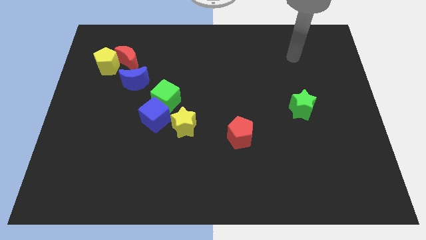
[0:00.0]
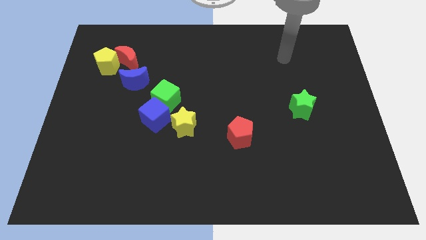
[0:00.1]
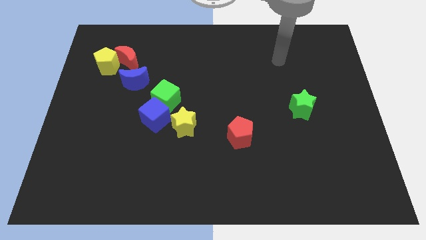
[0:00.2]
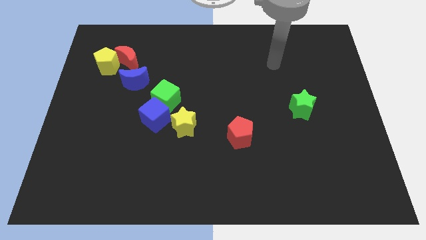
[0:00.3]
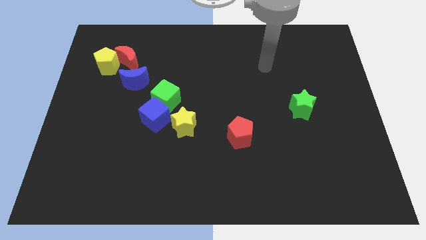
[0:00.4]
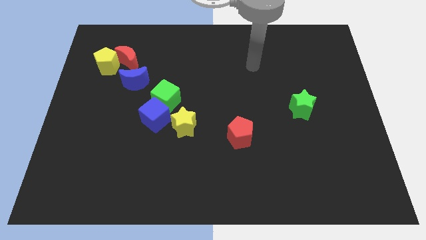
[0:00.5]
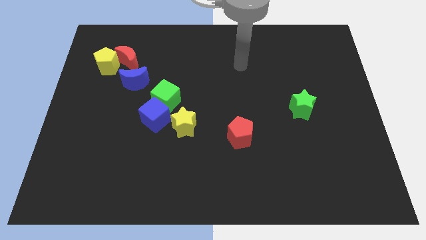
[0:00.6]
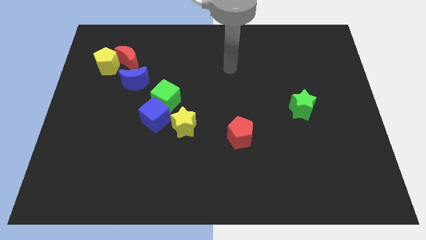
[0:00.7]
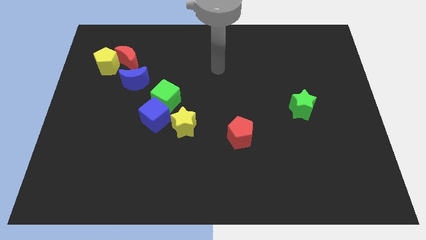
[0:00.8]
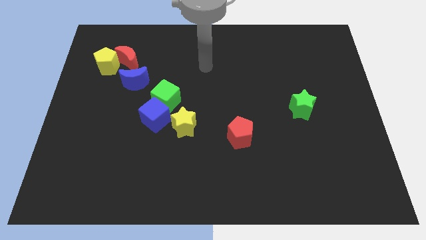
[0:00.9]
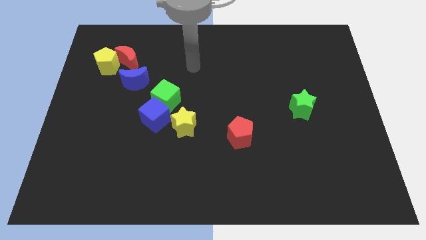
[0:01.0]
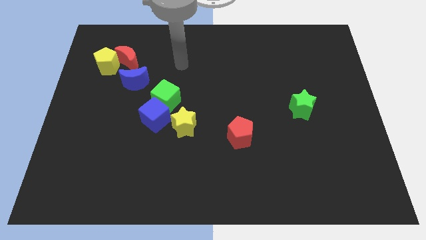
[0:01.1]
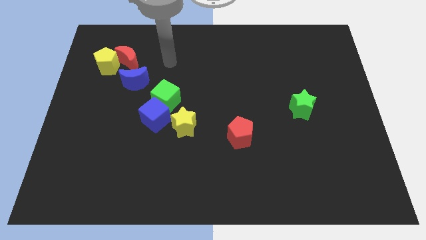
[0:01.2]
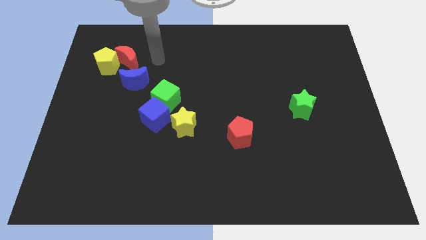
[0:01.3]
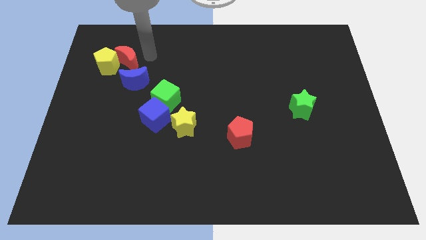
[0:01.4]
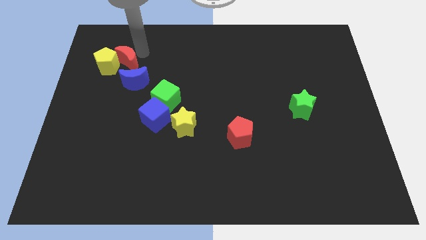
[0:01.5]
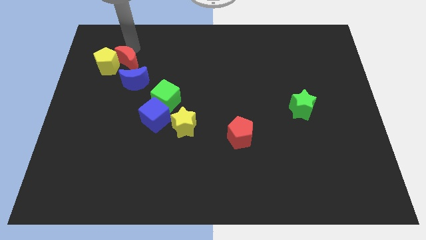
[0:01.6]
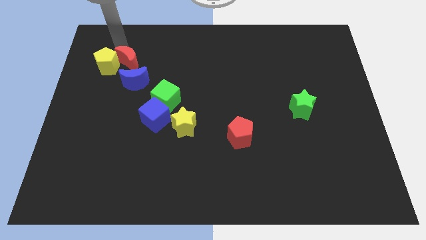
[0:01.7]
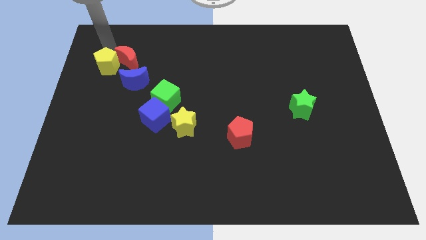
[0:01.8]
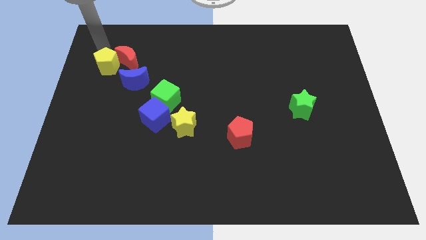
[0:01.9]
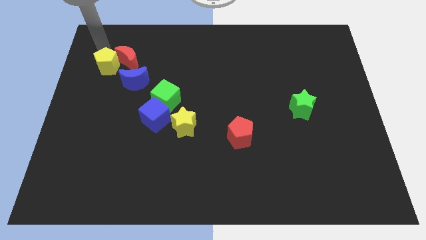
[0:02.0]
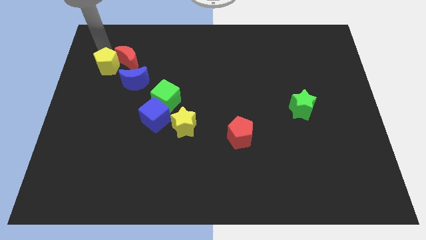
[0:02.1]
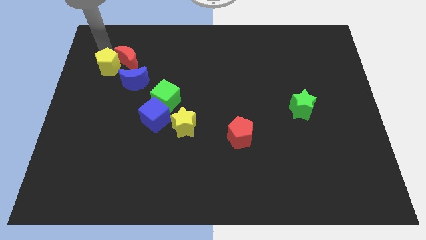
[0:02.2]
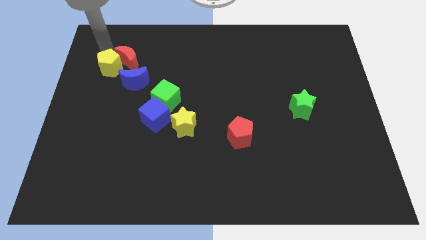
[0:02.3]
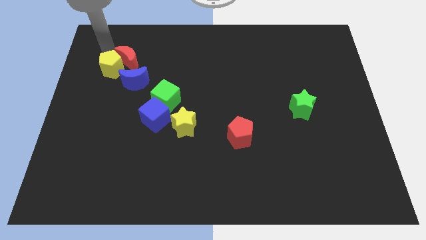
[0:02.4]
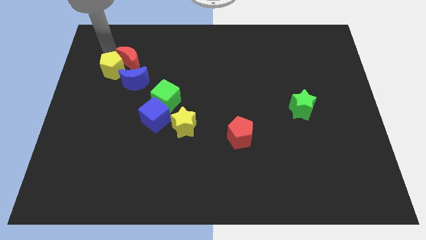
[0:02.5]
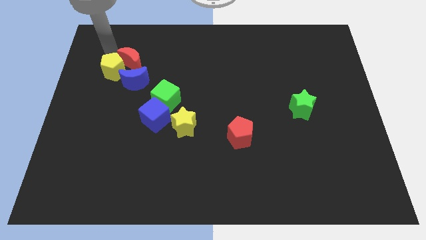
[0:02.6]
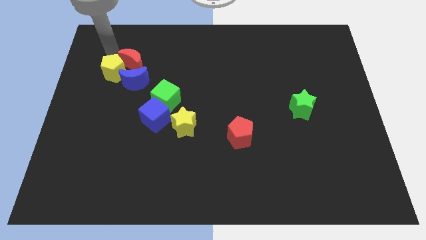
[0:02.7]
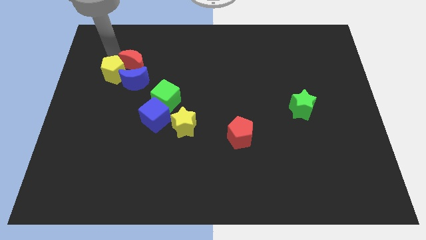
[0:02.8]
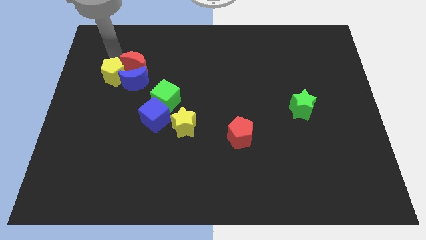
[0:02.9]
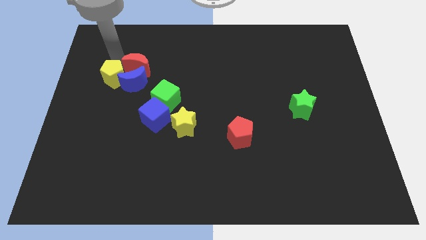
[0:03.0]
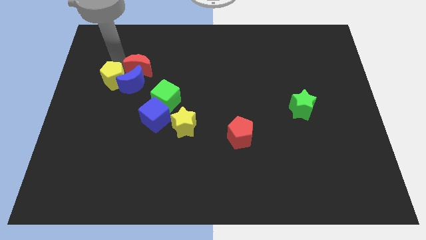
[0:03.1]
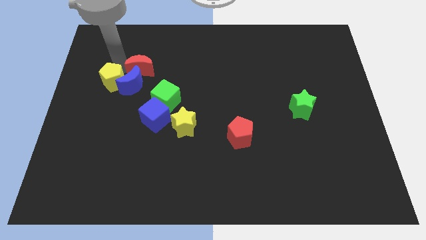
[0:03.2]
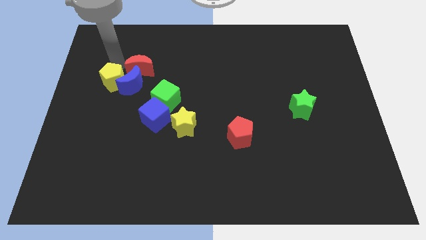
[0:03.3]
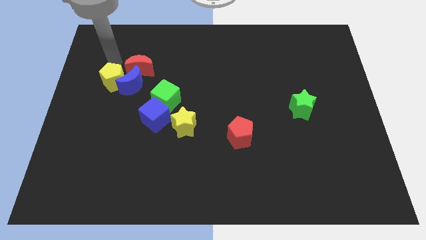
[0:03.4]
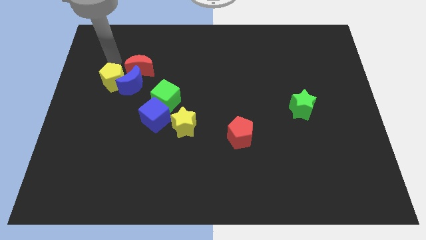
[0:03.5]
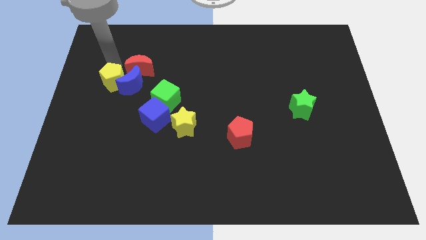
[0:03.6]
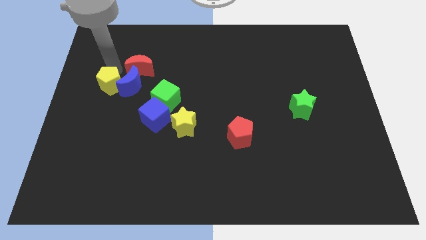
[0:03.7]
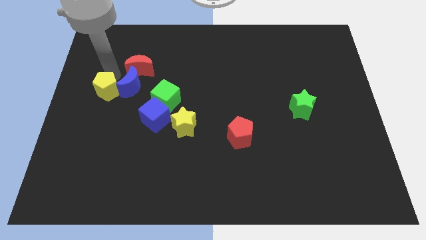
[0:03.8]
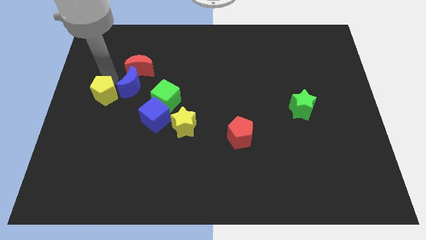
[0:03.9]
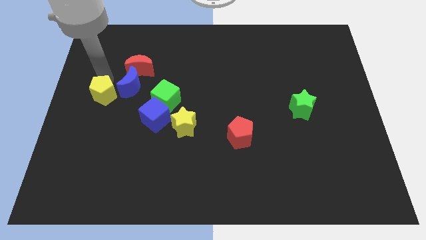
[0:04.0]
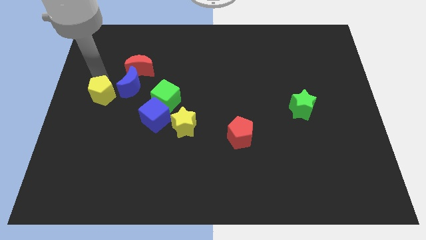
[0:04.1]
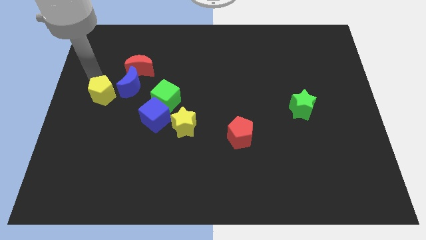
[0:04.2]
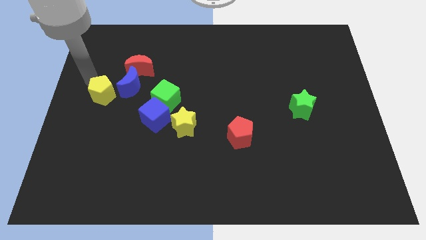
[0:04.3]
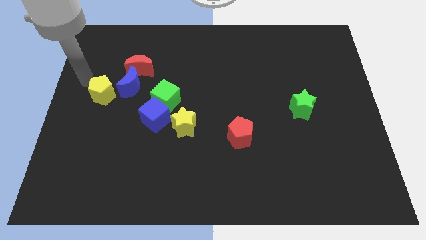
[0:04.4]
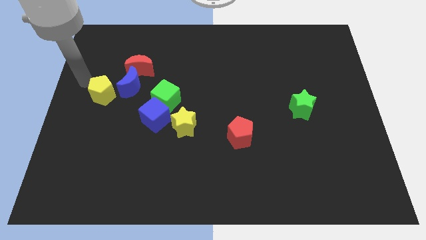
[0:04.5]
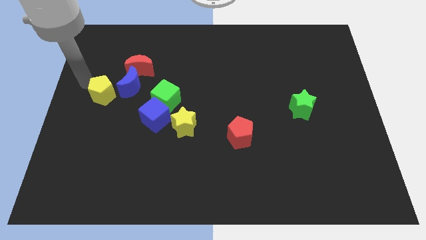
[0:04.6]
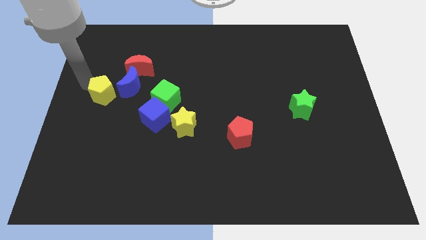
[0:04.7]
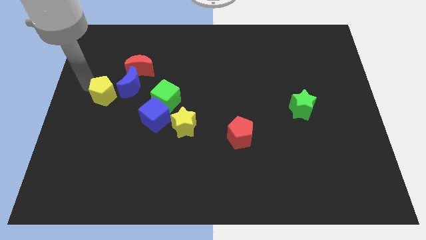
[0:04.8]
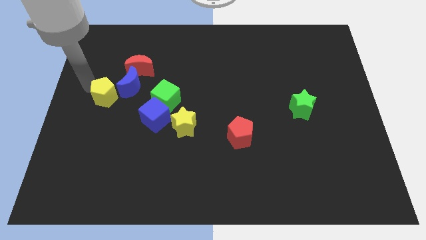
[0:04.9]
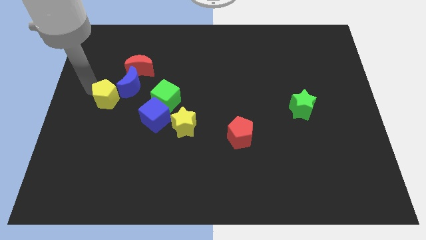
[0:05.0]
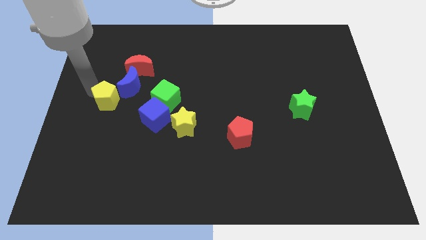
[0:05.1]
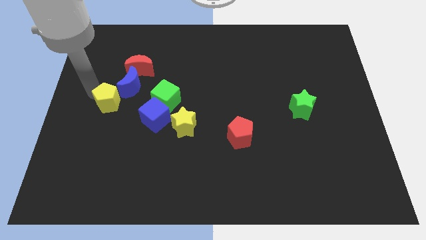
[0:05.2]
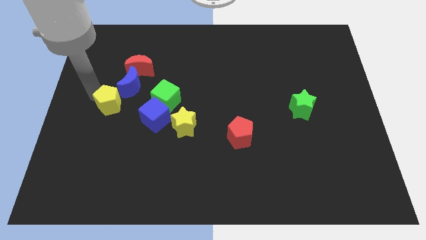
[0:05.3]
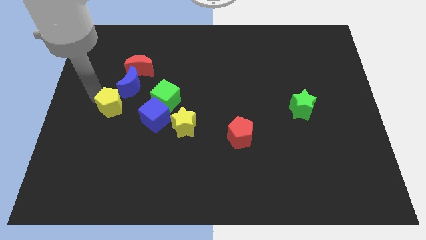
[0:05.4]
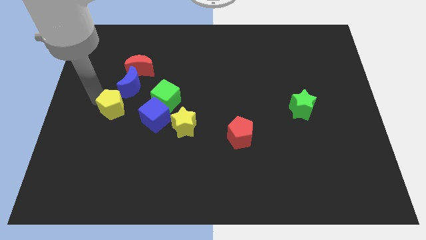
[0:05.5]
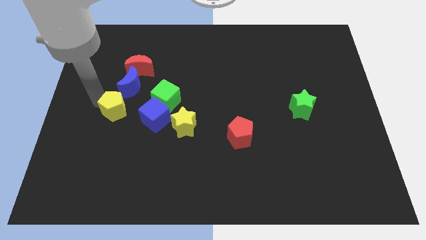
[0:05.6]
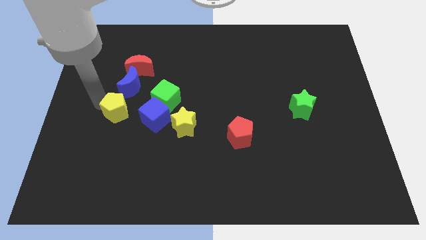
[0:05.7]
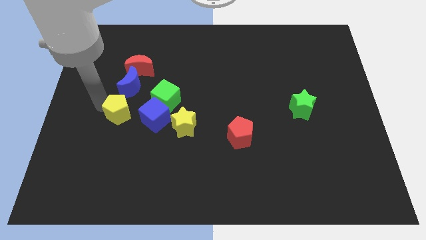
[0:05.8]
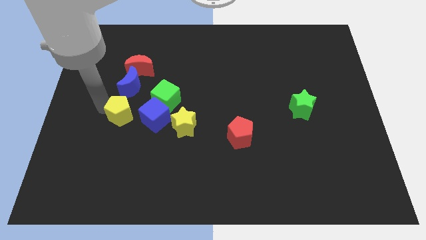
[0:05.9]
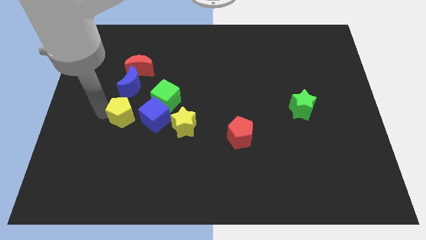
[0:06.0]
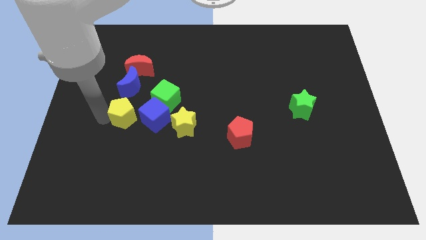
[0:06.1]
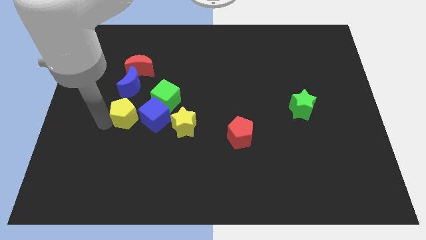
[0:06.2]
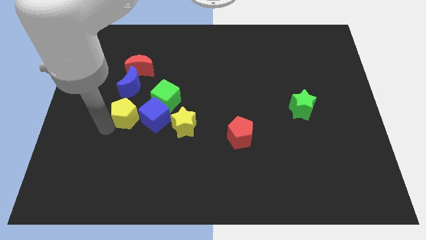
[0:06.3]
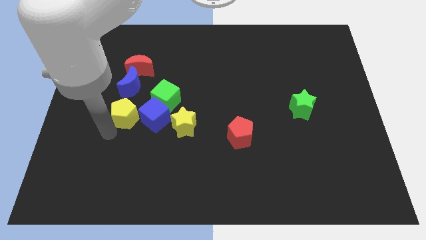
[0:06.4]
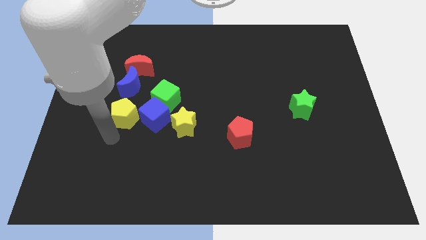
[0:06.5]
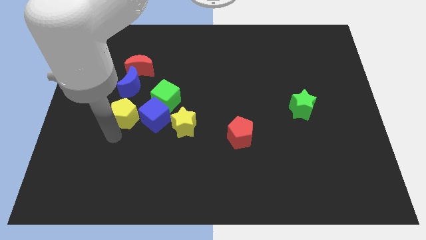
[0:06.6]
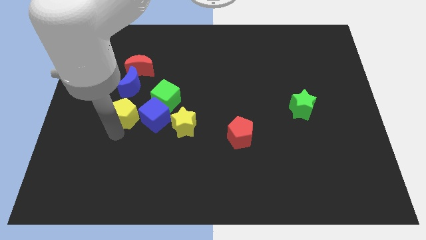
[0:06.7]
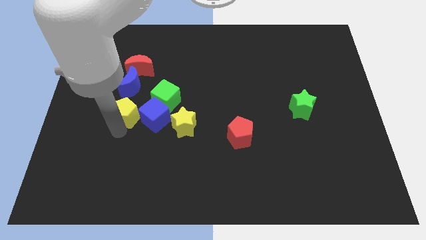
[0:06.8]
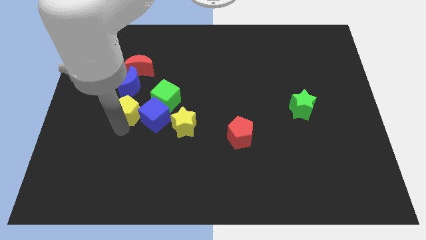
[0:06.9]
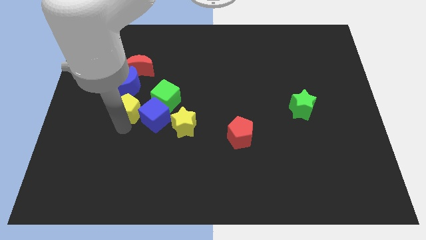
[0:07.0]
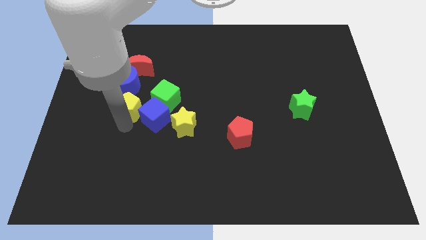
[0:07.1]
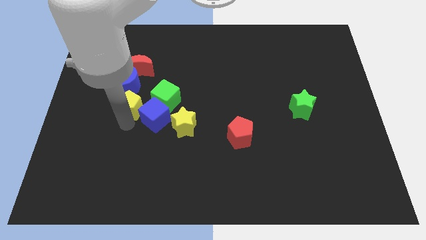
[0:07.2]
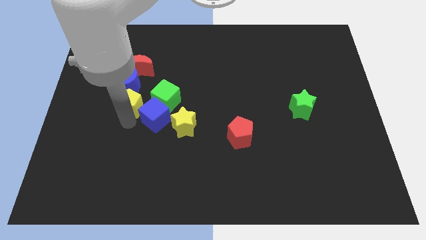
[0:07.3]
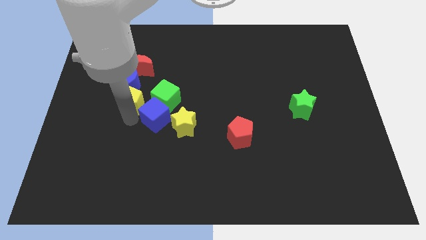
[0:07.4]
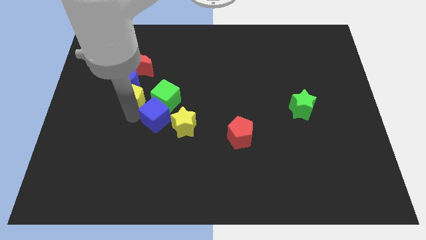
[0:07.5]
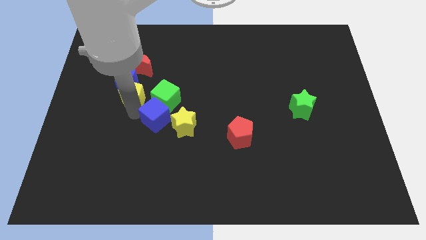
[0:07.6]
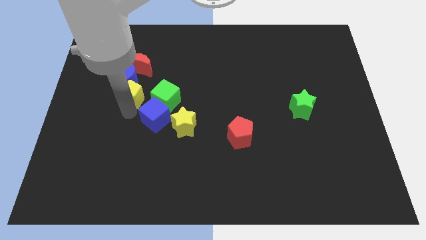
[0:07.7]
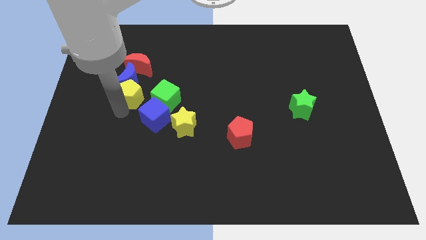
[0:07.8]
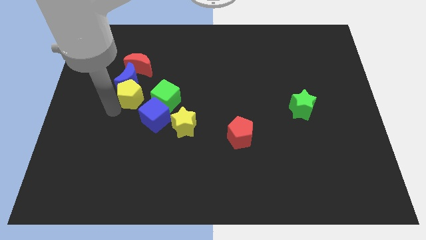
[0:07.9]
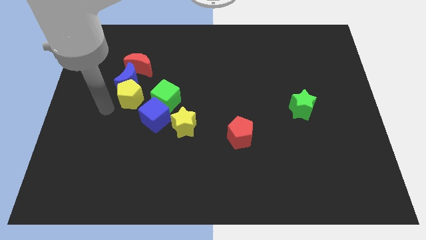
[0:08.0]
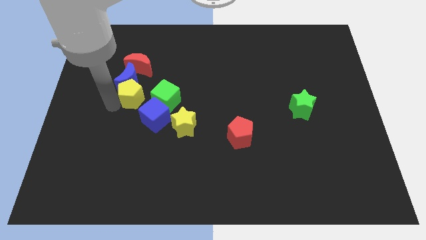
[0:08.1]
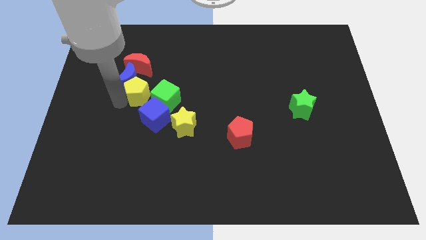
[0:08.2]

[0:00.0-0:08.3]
put the yellow pentagon above the blue cube
